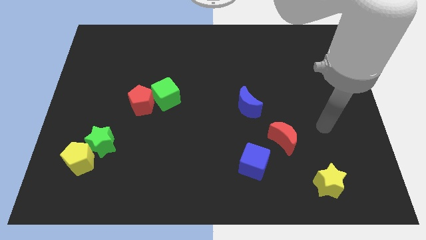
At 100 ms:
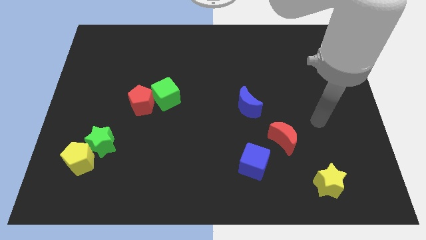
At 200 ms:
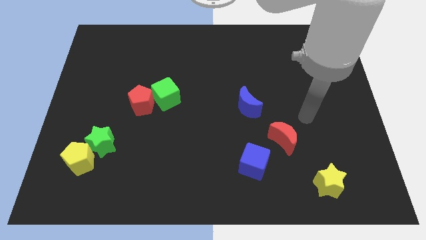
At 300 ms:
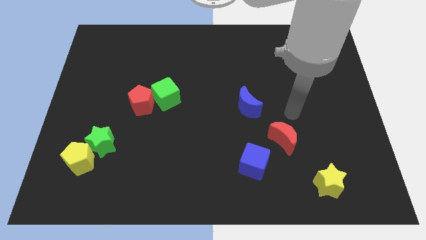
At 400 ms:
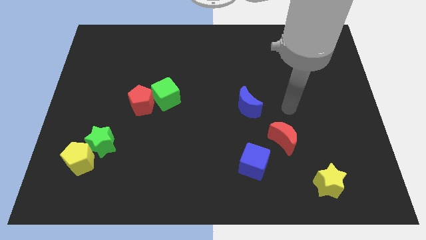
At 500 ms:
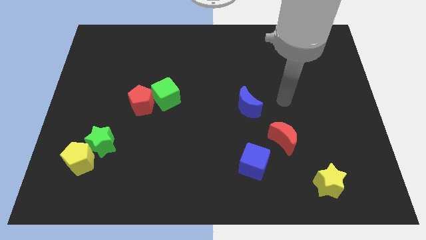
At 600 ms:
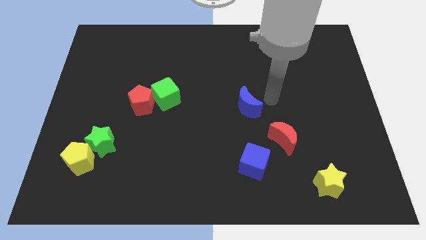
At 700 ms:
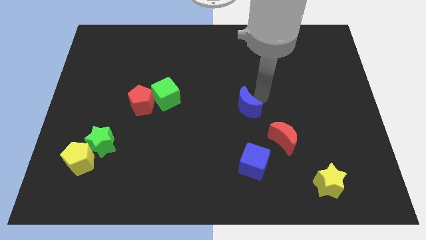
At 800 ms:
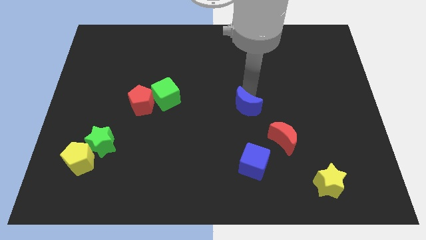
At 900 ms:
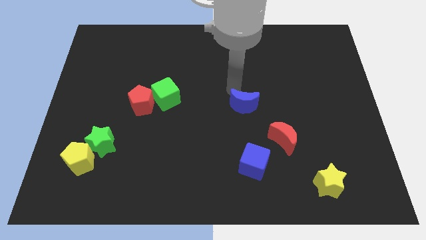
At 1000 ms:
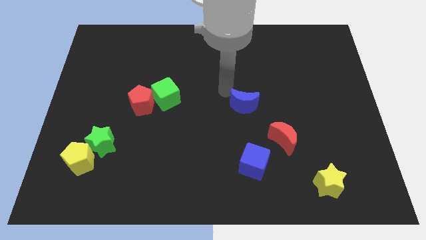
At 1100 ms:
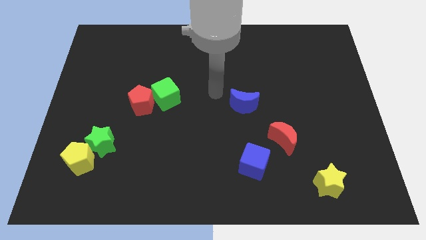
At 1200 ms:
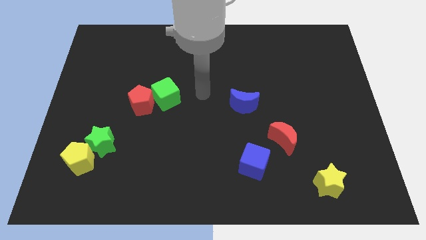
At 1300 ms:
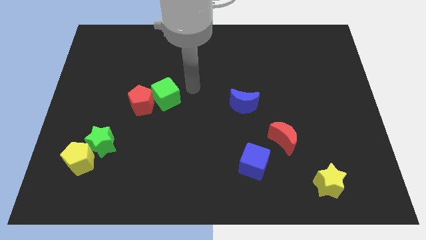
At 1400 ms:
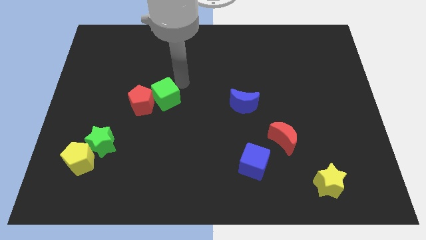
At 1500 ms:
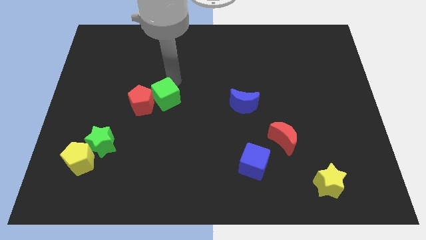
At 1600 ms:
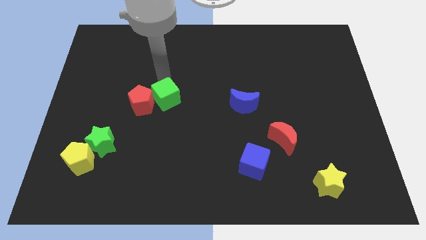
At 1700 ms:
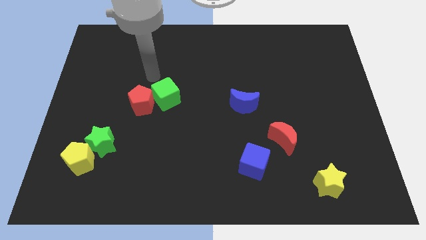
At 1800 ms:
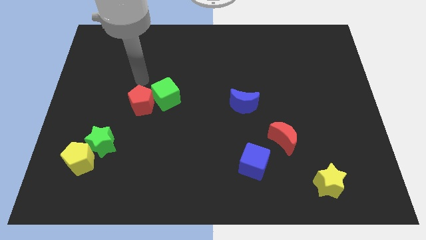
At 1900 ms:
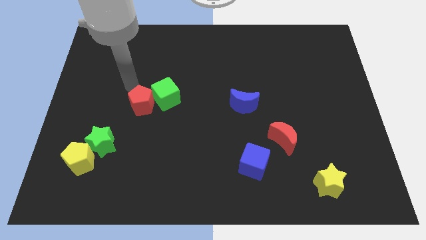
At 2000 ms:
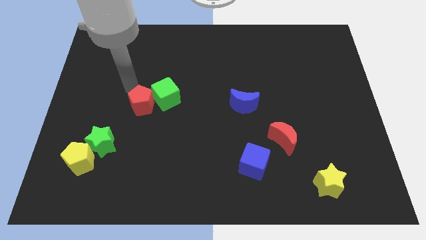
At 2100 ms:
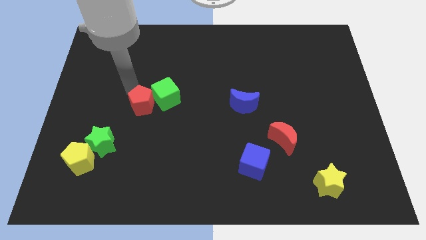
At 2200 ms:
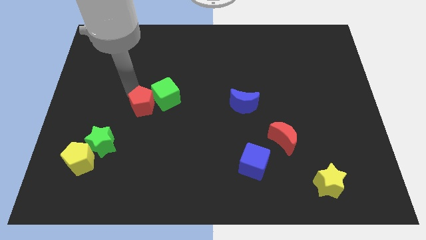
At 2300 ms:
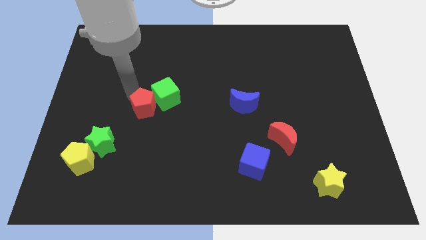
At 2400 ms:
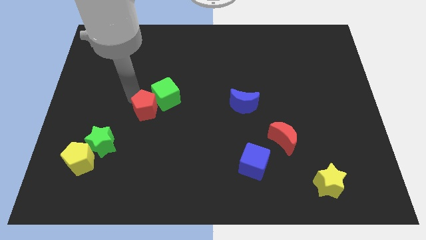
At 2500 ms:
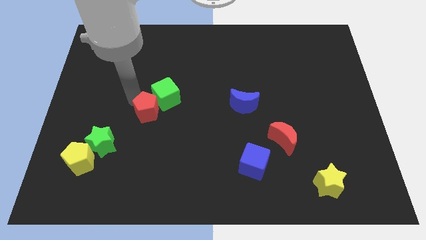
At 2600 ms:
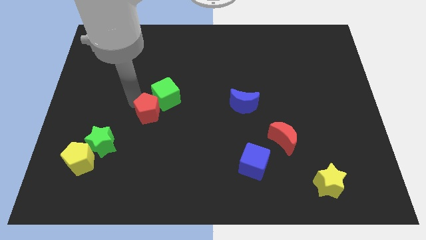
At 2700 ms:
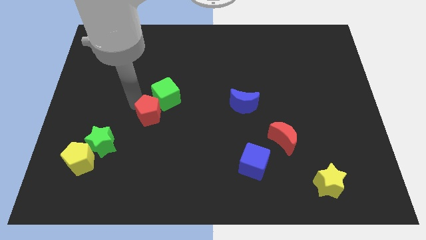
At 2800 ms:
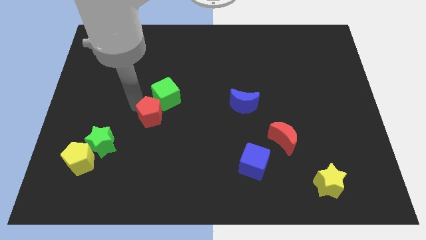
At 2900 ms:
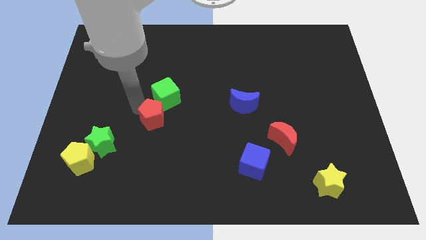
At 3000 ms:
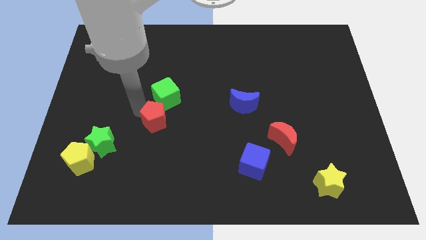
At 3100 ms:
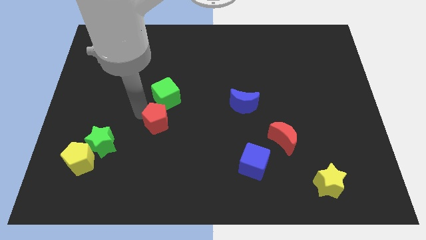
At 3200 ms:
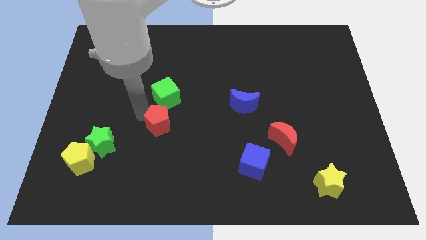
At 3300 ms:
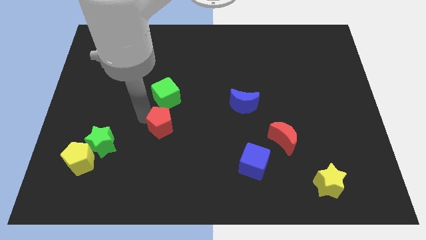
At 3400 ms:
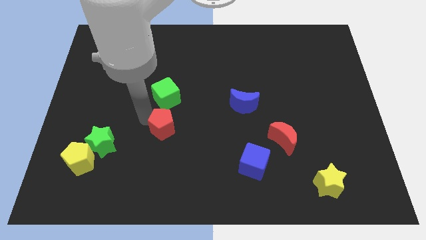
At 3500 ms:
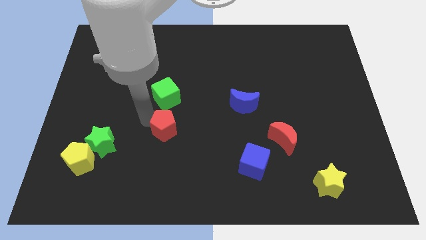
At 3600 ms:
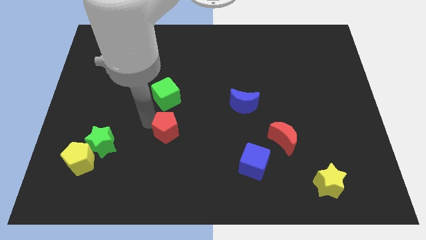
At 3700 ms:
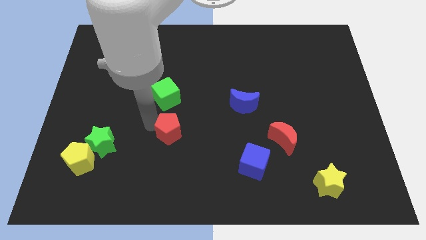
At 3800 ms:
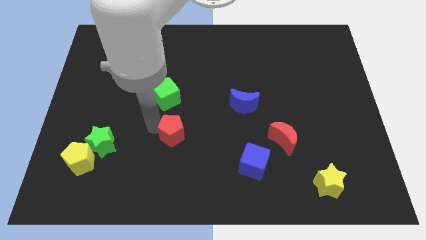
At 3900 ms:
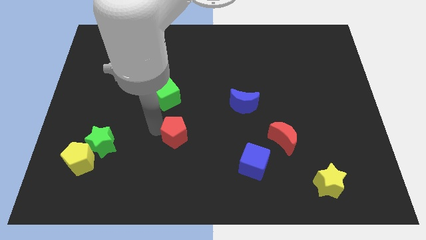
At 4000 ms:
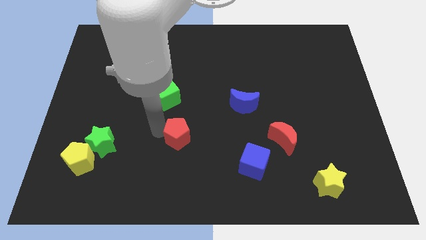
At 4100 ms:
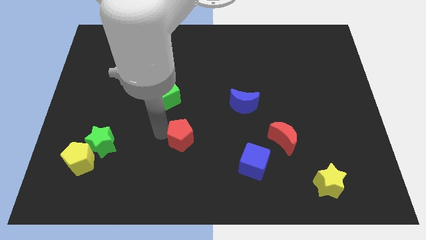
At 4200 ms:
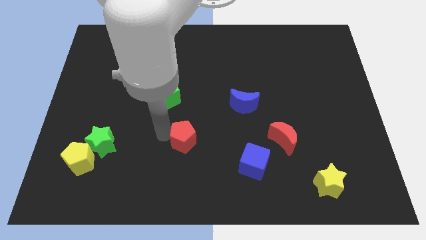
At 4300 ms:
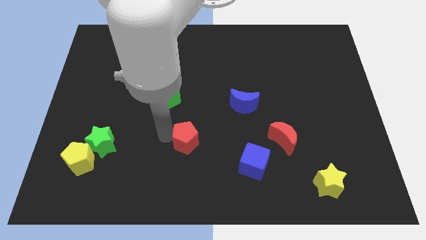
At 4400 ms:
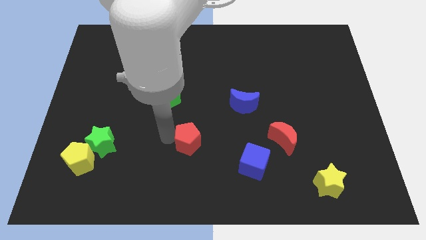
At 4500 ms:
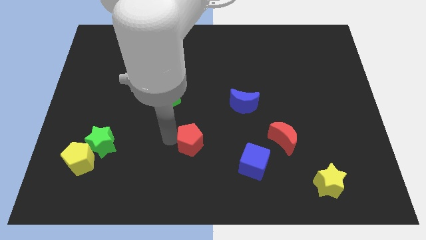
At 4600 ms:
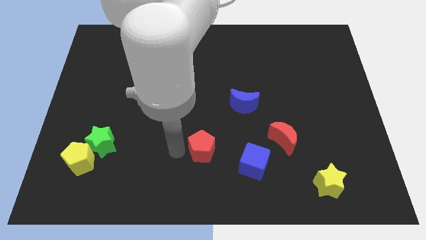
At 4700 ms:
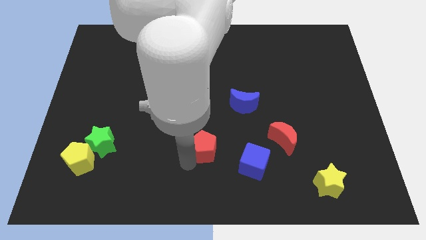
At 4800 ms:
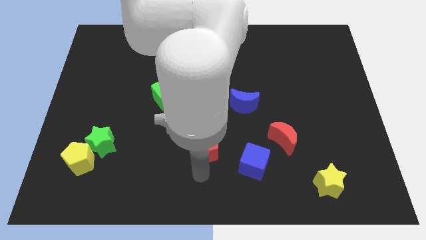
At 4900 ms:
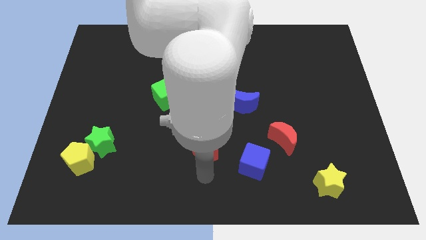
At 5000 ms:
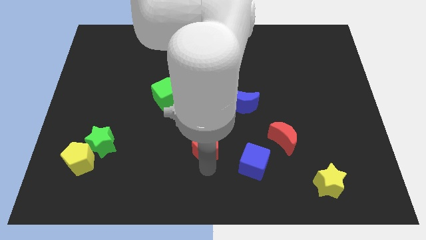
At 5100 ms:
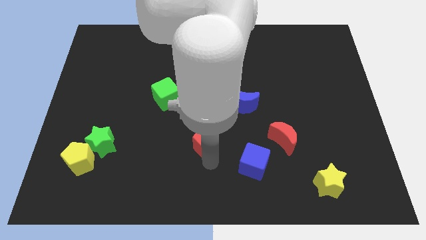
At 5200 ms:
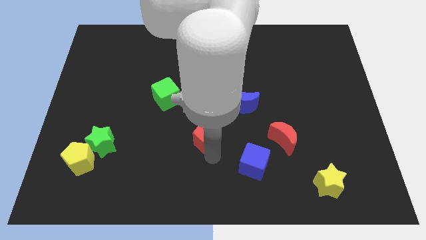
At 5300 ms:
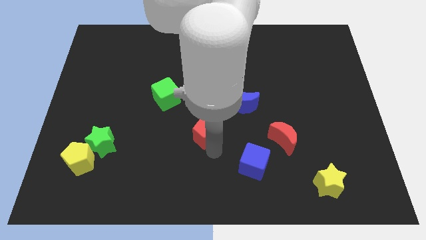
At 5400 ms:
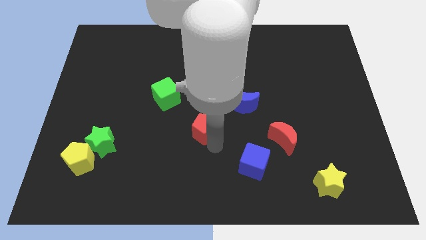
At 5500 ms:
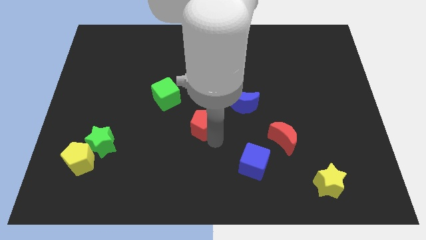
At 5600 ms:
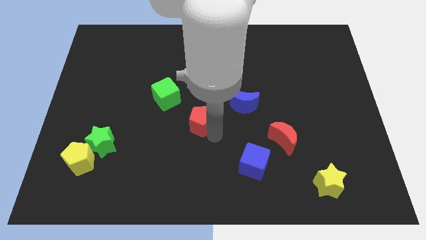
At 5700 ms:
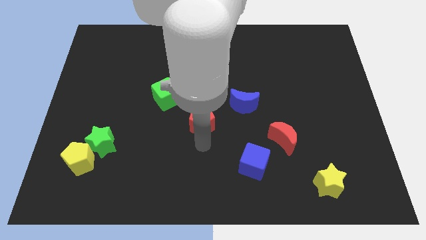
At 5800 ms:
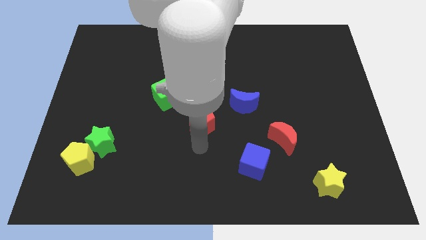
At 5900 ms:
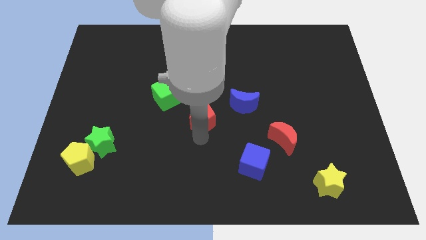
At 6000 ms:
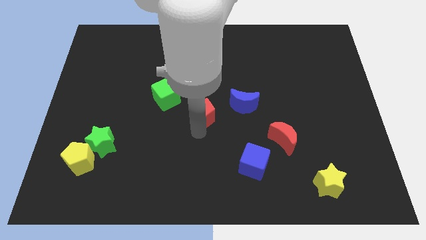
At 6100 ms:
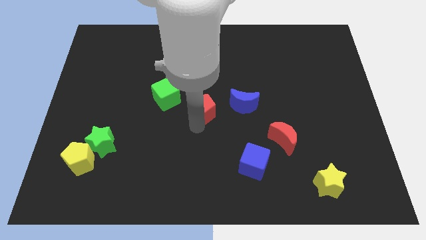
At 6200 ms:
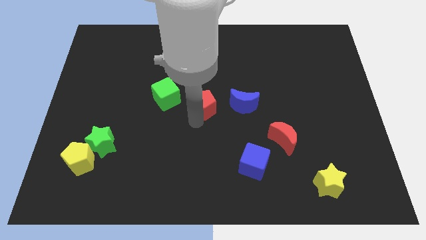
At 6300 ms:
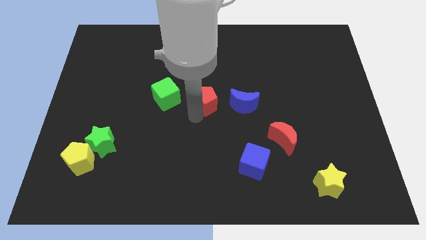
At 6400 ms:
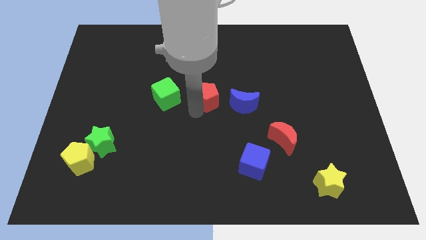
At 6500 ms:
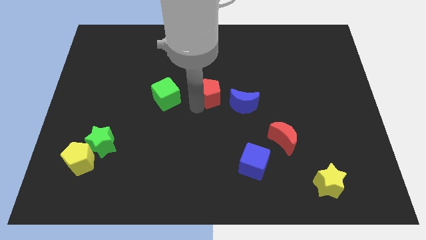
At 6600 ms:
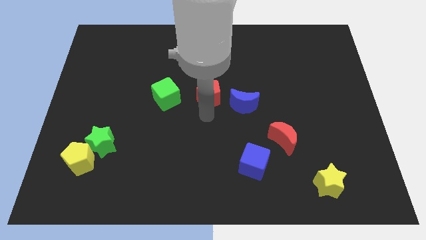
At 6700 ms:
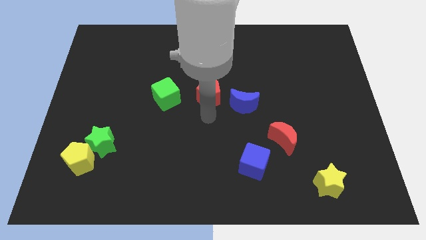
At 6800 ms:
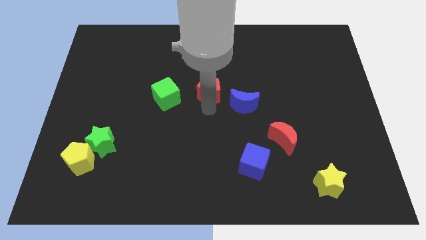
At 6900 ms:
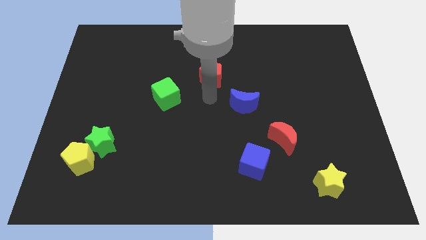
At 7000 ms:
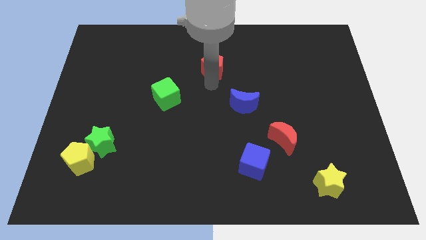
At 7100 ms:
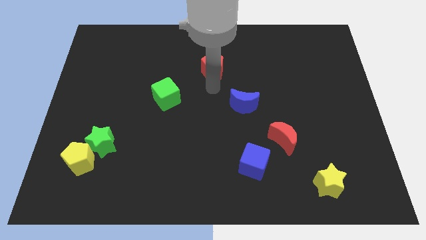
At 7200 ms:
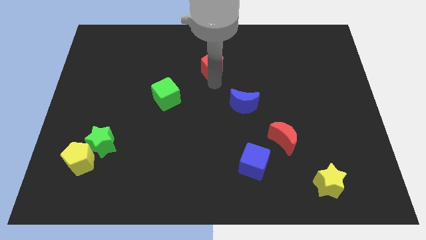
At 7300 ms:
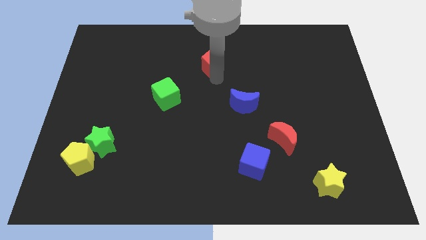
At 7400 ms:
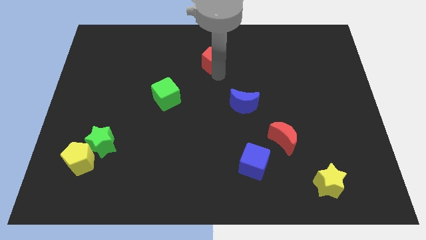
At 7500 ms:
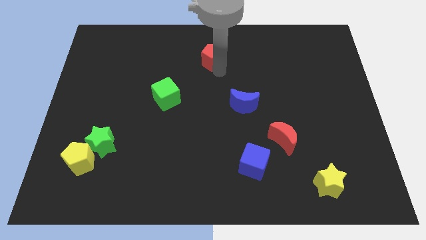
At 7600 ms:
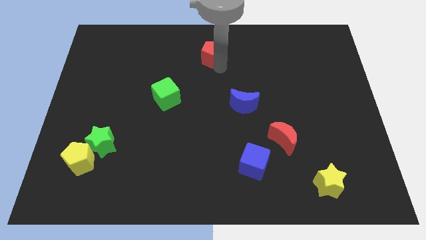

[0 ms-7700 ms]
move the red pentagon to the towards your base
